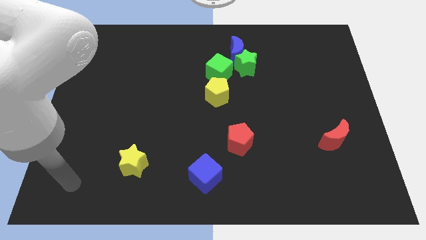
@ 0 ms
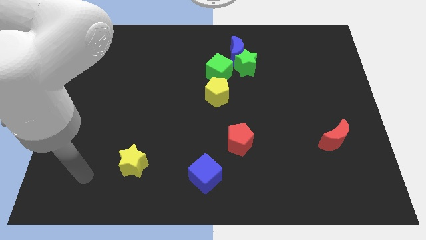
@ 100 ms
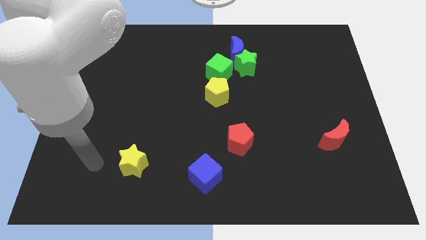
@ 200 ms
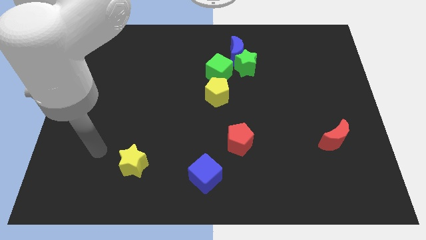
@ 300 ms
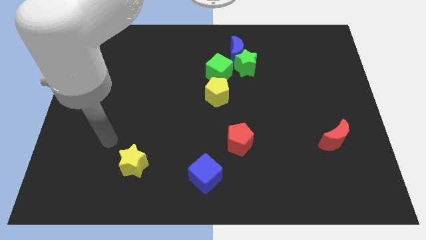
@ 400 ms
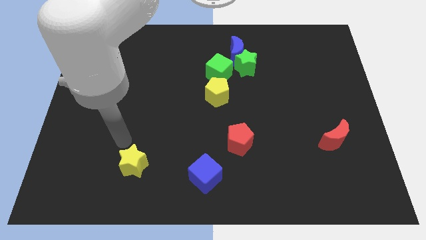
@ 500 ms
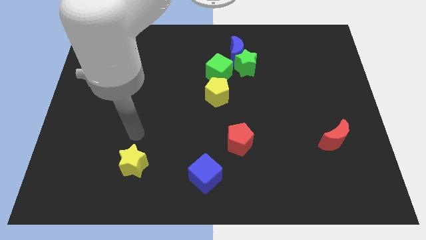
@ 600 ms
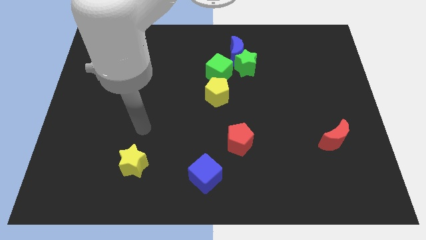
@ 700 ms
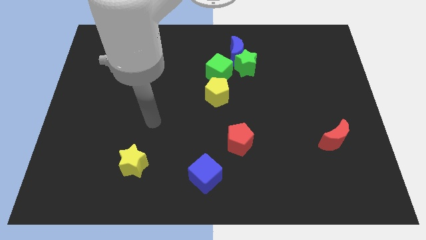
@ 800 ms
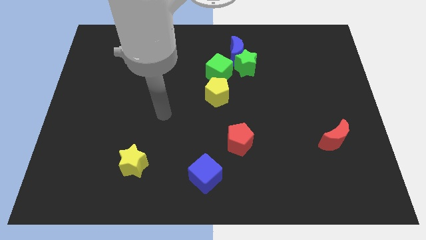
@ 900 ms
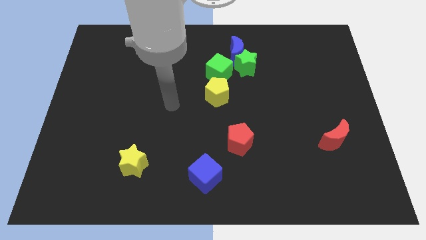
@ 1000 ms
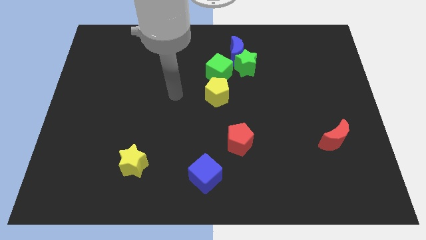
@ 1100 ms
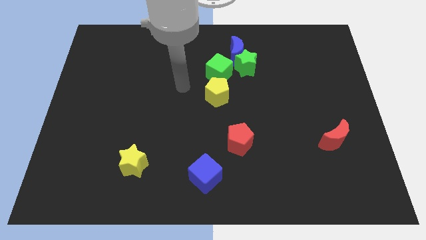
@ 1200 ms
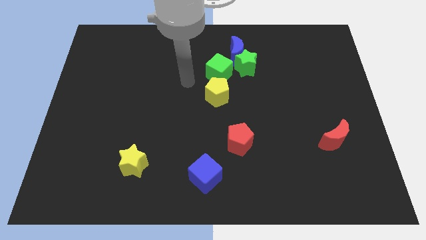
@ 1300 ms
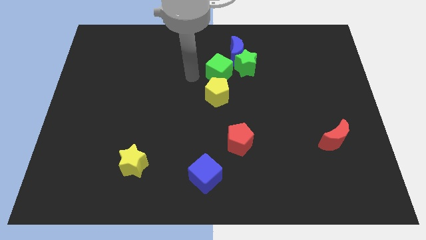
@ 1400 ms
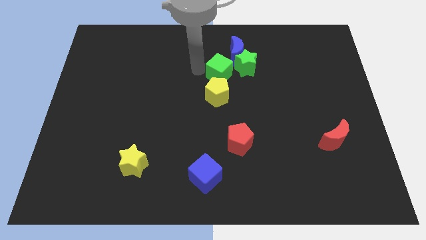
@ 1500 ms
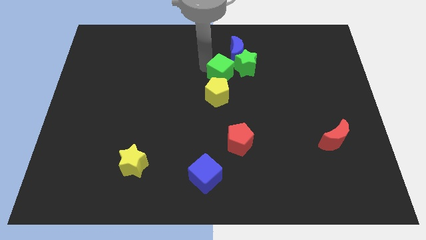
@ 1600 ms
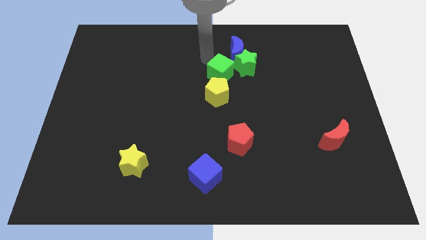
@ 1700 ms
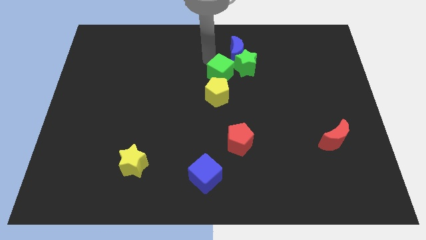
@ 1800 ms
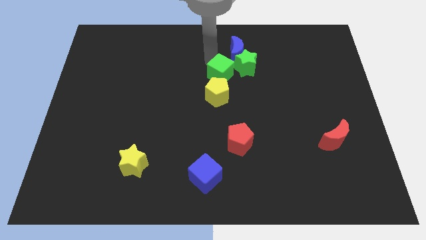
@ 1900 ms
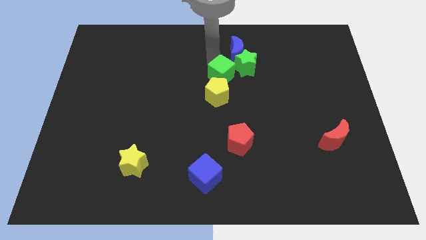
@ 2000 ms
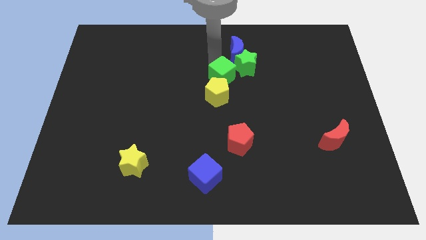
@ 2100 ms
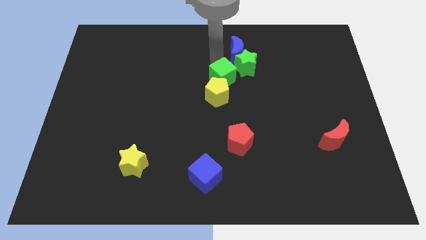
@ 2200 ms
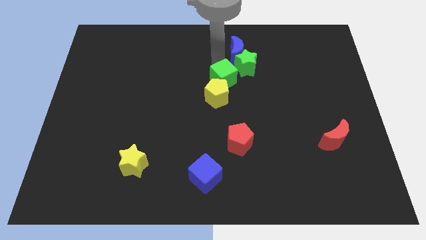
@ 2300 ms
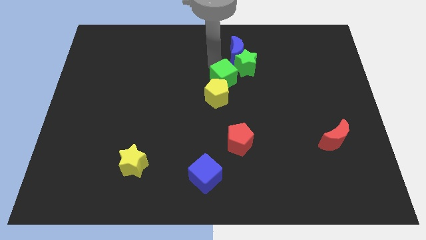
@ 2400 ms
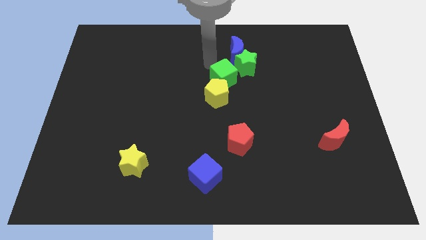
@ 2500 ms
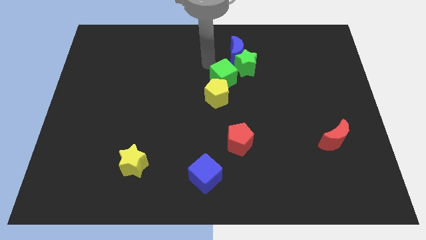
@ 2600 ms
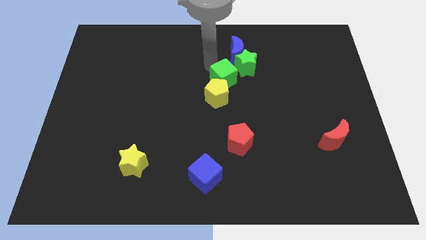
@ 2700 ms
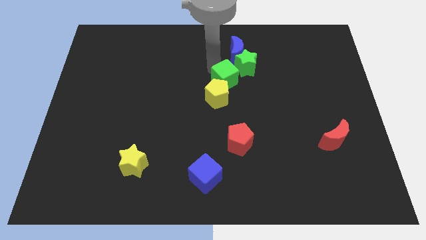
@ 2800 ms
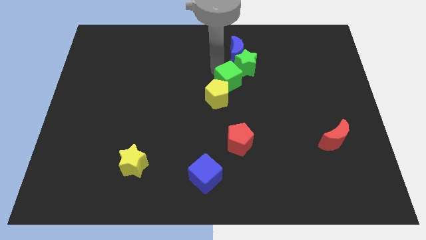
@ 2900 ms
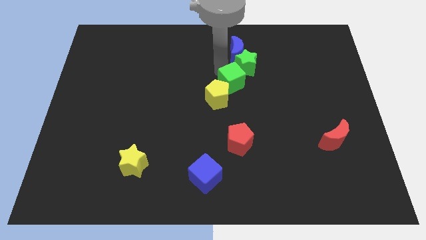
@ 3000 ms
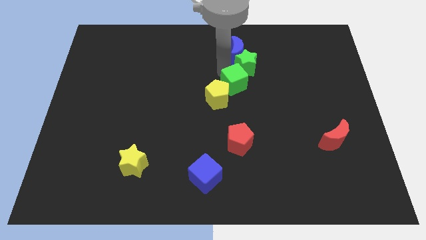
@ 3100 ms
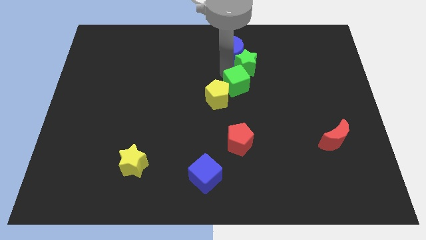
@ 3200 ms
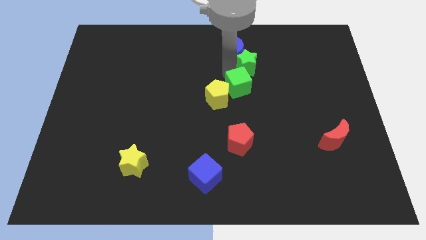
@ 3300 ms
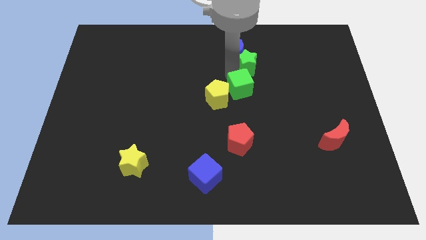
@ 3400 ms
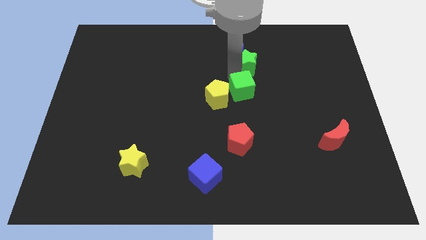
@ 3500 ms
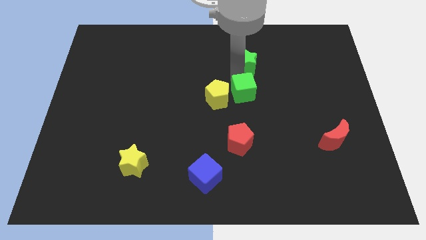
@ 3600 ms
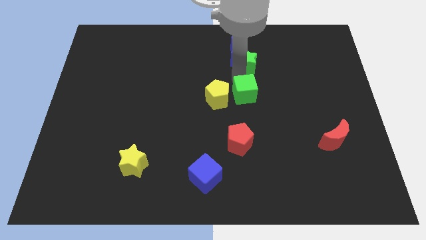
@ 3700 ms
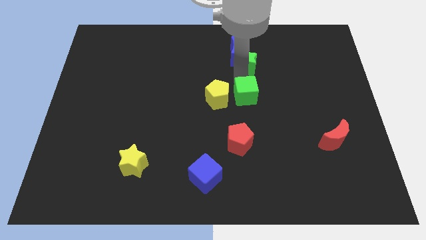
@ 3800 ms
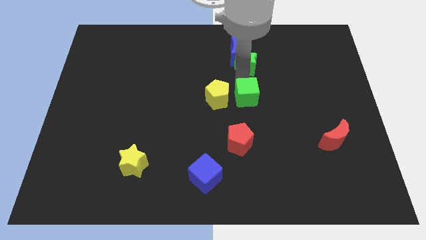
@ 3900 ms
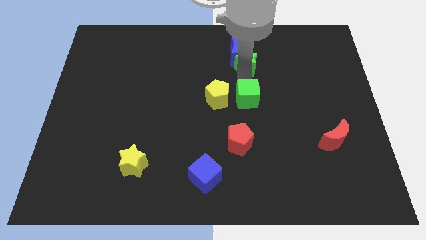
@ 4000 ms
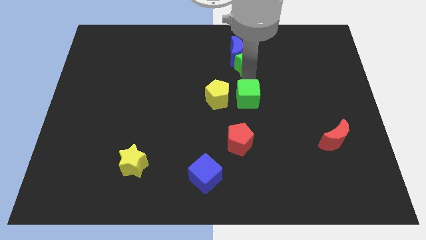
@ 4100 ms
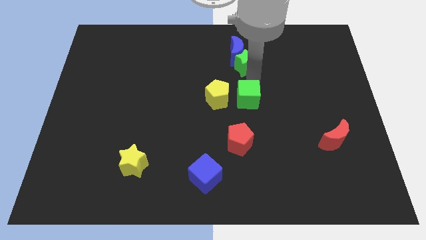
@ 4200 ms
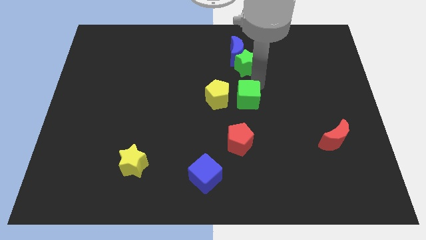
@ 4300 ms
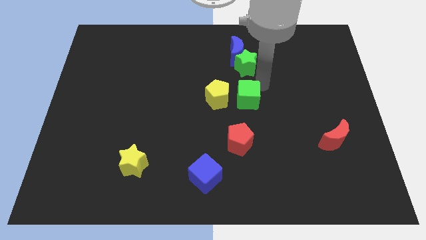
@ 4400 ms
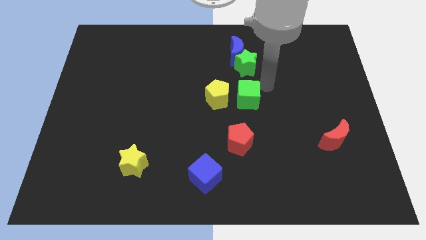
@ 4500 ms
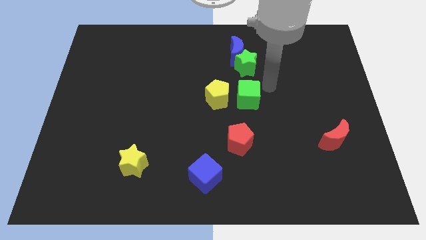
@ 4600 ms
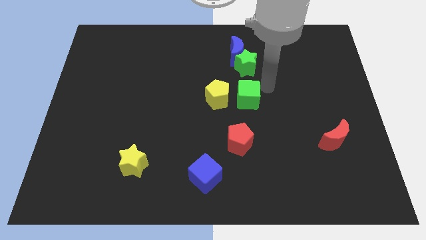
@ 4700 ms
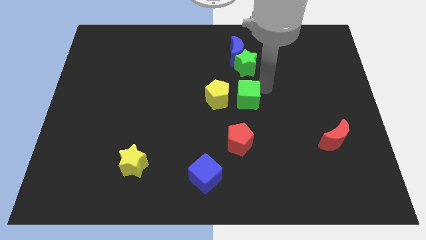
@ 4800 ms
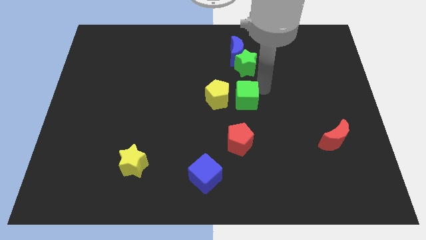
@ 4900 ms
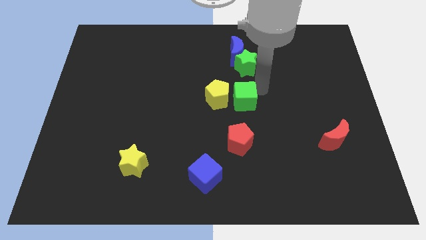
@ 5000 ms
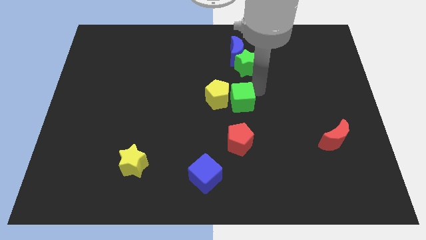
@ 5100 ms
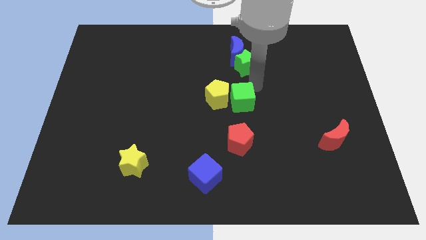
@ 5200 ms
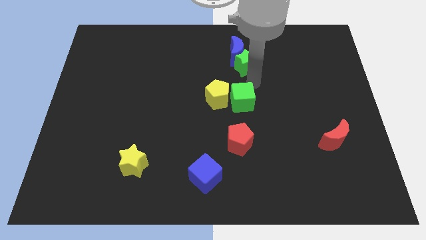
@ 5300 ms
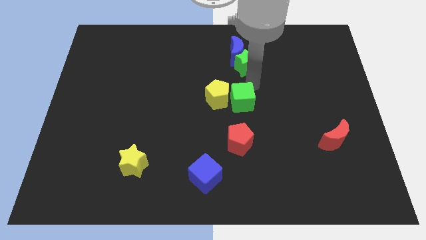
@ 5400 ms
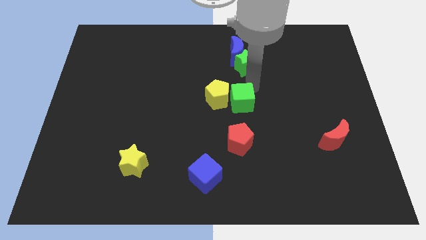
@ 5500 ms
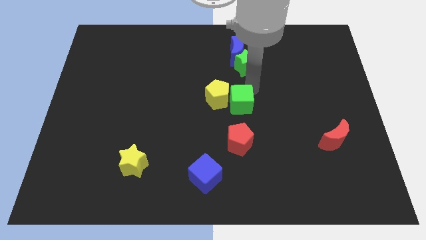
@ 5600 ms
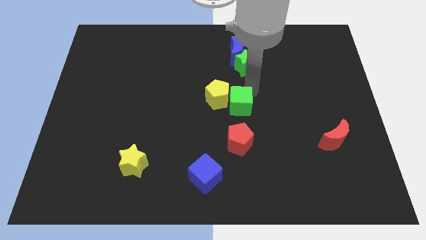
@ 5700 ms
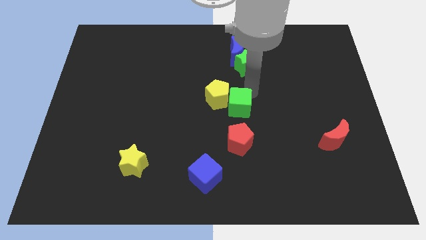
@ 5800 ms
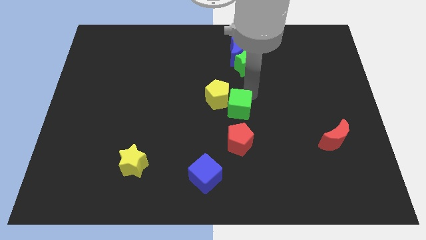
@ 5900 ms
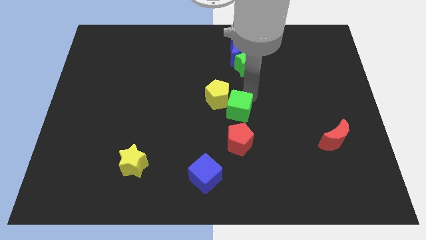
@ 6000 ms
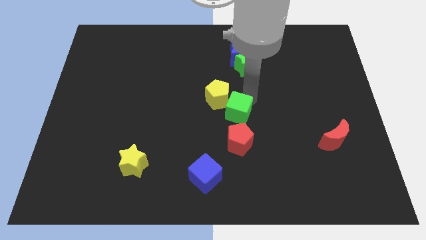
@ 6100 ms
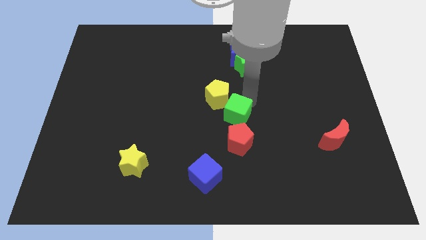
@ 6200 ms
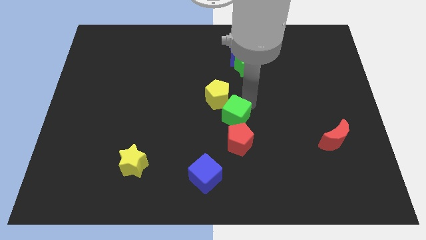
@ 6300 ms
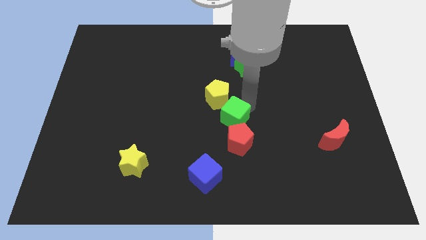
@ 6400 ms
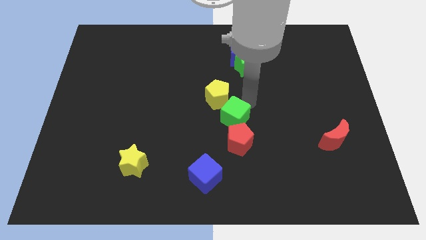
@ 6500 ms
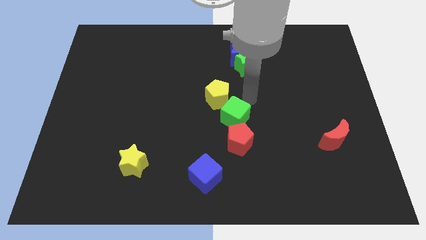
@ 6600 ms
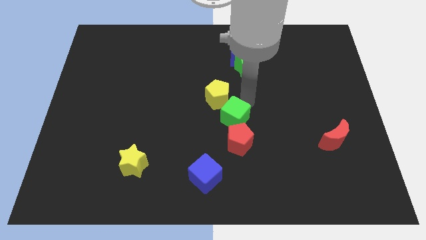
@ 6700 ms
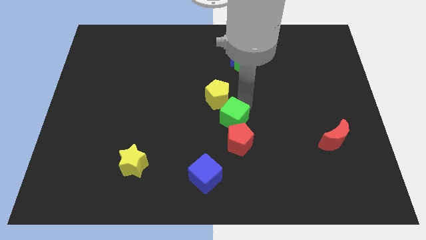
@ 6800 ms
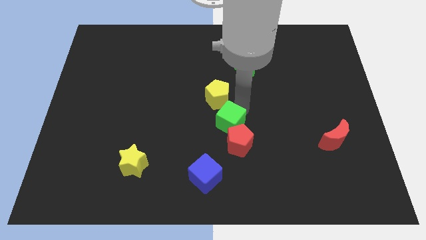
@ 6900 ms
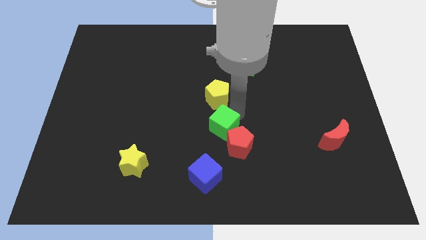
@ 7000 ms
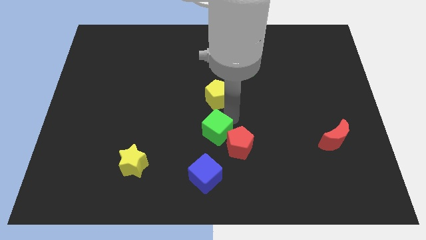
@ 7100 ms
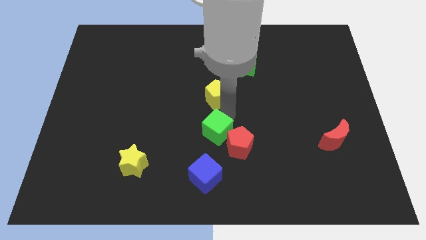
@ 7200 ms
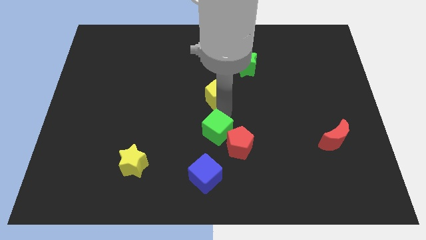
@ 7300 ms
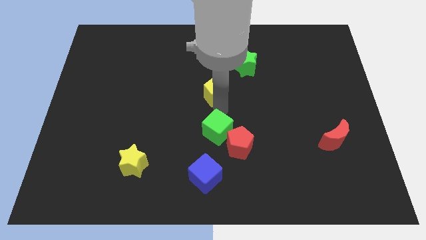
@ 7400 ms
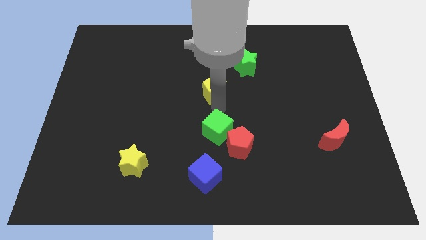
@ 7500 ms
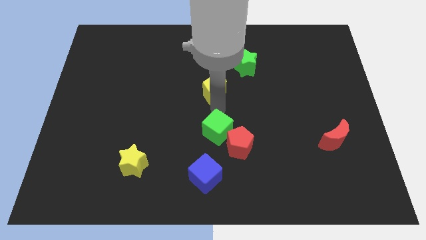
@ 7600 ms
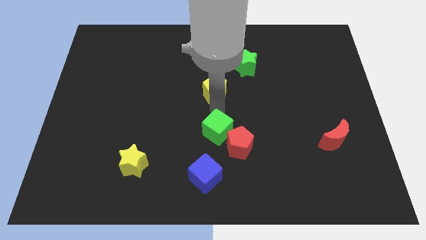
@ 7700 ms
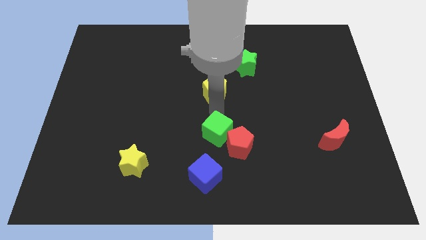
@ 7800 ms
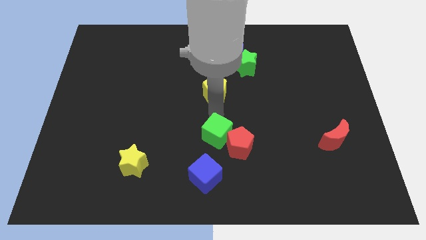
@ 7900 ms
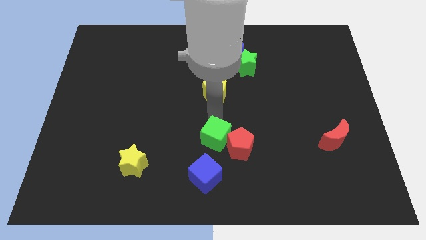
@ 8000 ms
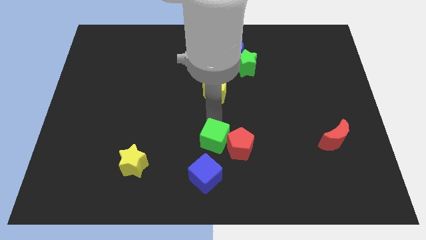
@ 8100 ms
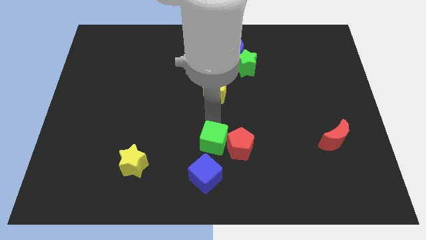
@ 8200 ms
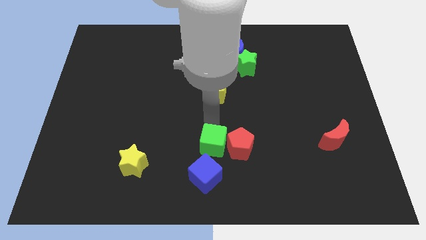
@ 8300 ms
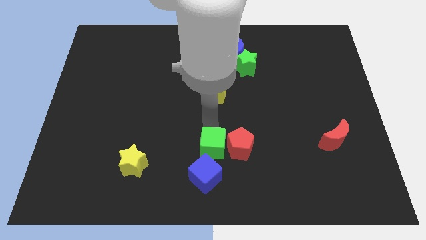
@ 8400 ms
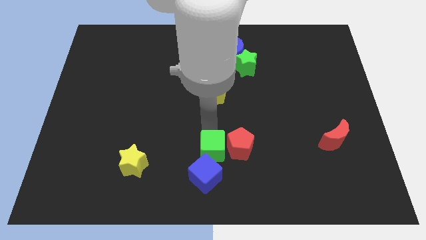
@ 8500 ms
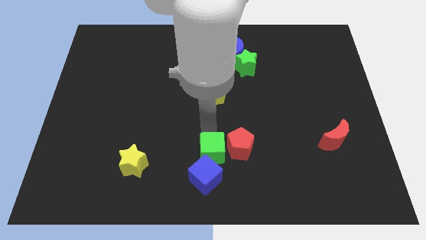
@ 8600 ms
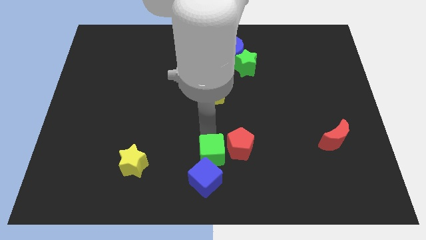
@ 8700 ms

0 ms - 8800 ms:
push the green cube to the bottom side
